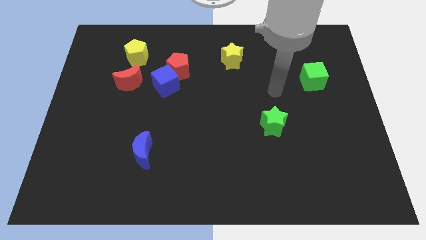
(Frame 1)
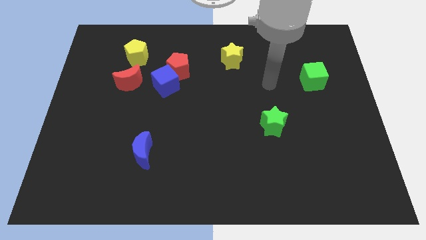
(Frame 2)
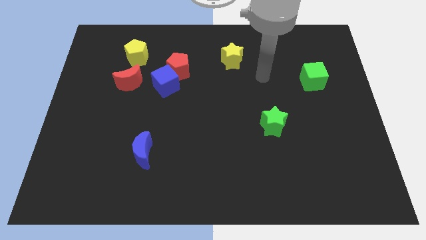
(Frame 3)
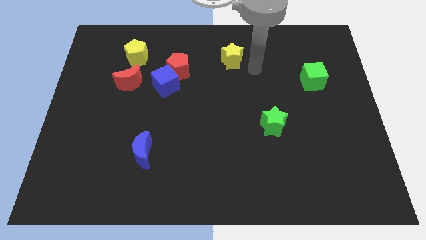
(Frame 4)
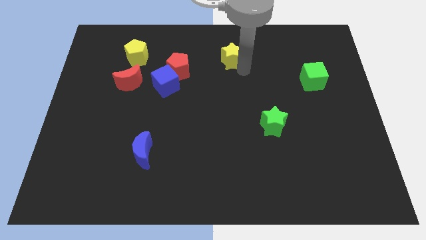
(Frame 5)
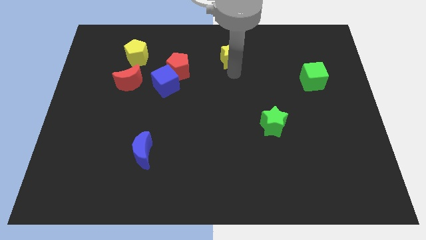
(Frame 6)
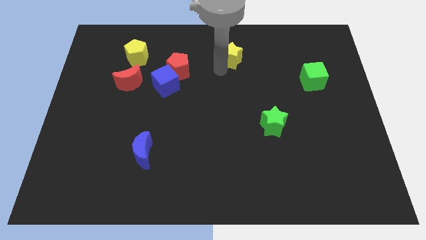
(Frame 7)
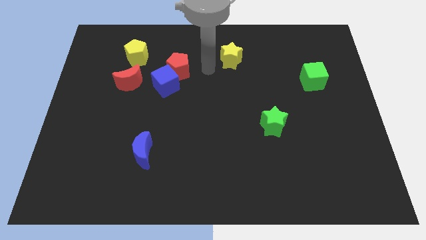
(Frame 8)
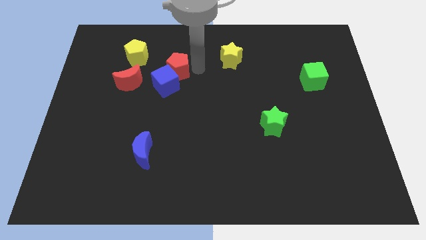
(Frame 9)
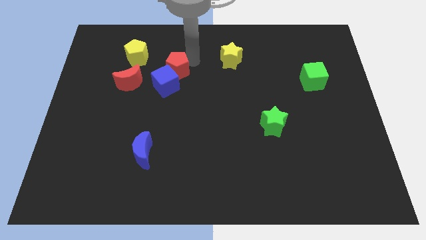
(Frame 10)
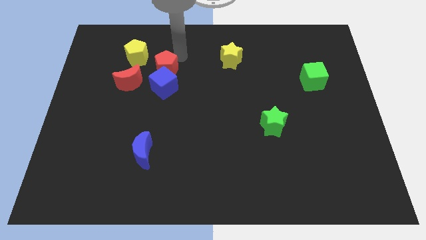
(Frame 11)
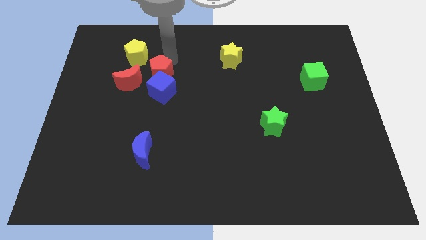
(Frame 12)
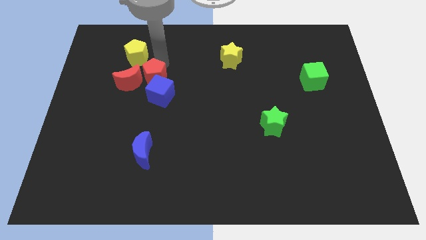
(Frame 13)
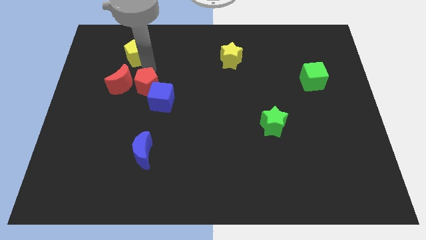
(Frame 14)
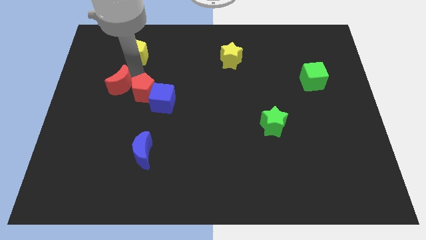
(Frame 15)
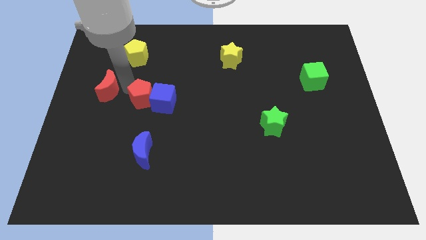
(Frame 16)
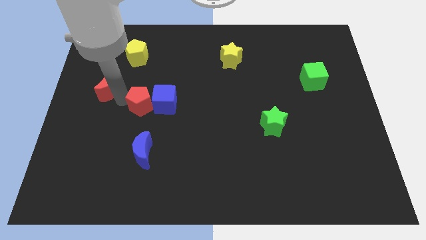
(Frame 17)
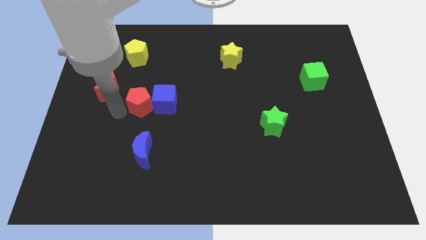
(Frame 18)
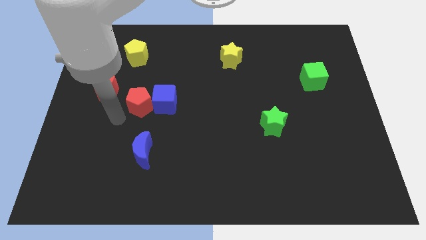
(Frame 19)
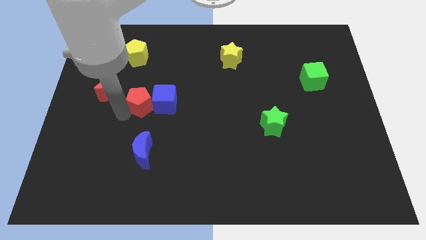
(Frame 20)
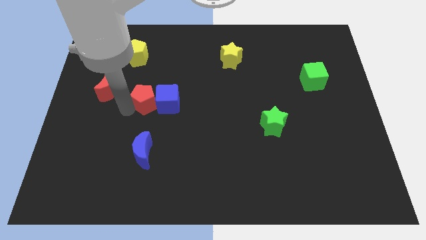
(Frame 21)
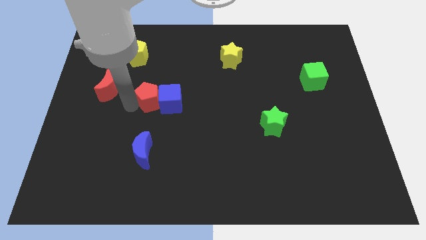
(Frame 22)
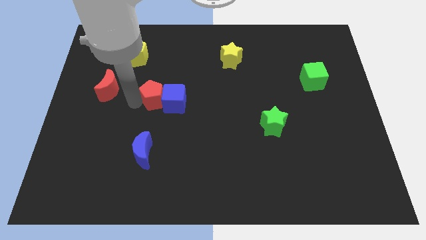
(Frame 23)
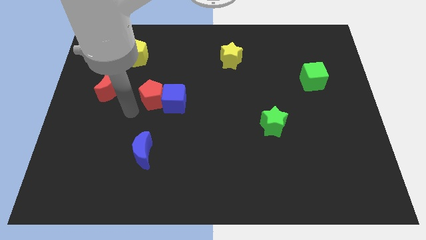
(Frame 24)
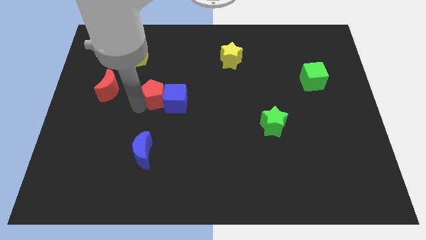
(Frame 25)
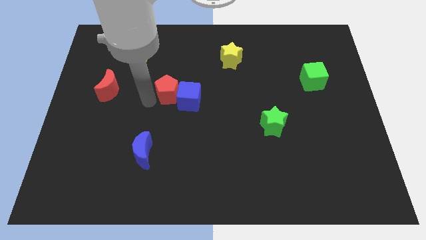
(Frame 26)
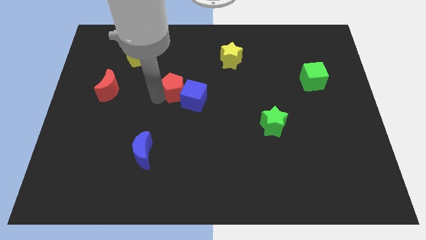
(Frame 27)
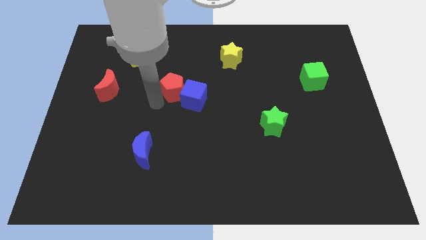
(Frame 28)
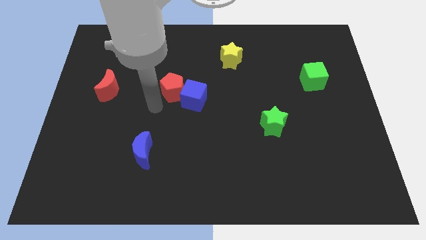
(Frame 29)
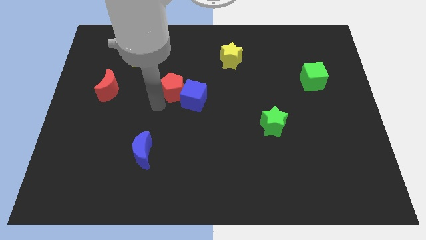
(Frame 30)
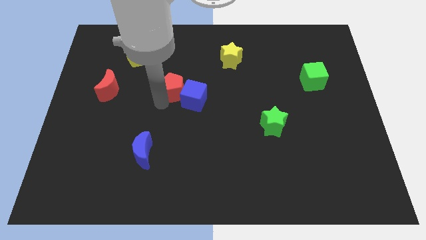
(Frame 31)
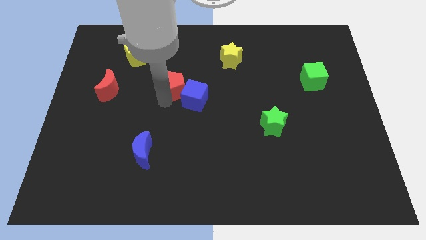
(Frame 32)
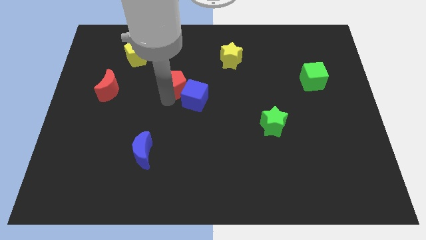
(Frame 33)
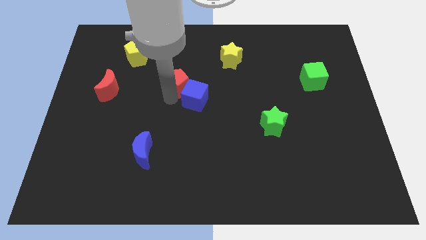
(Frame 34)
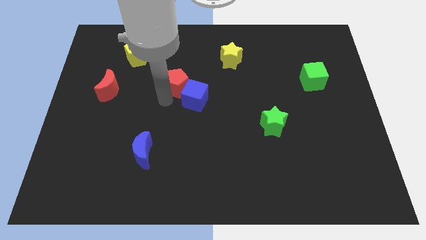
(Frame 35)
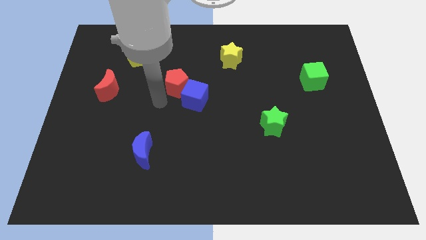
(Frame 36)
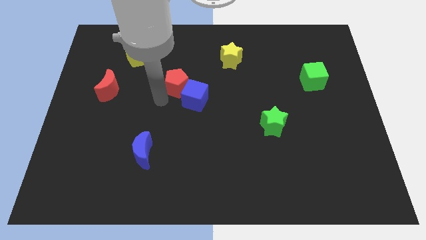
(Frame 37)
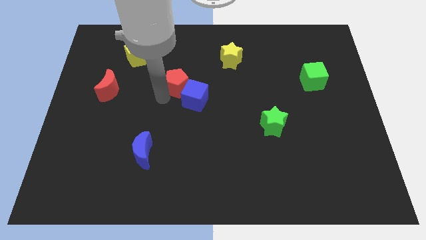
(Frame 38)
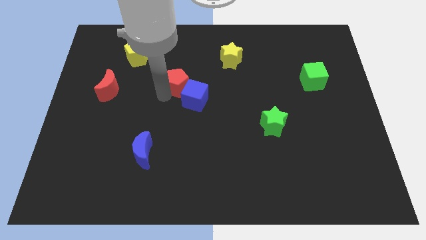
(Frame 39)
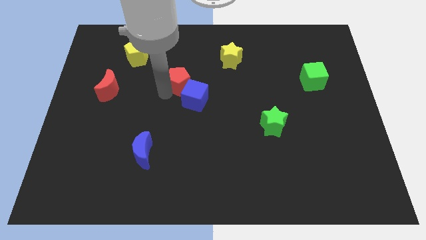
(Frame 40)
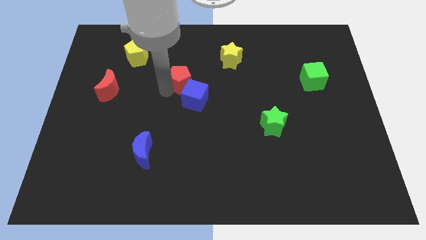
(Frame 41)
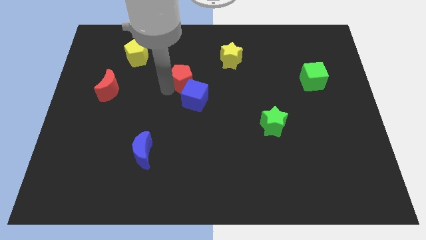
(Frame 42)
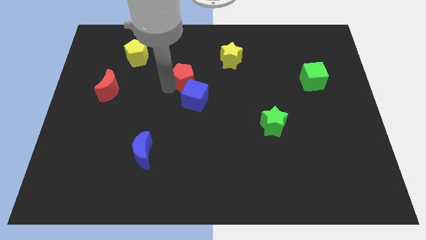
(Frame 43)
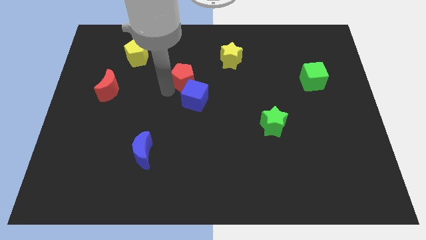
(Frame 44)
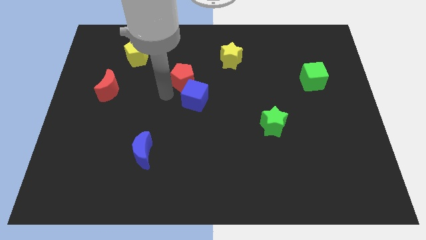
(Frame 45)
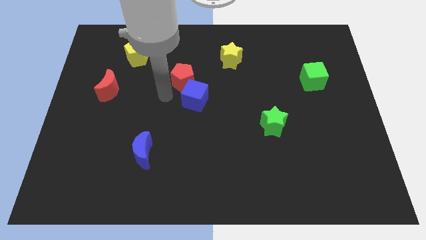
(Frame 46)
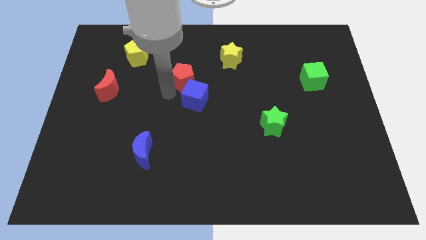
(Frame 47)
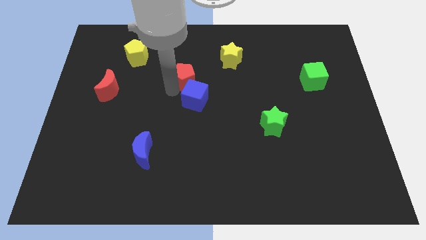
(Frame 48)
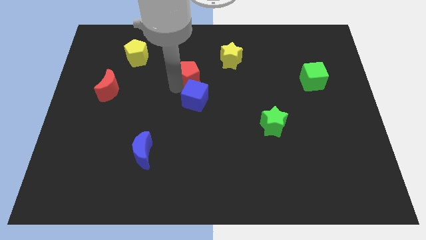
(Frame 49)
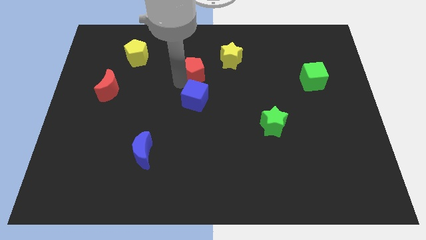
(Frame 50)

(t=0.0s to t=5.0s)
put the red pentagon diagonally down and to the left of the yellow star

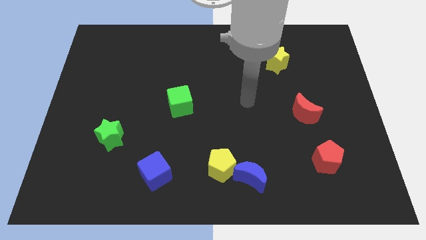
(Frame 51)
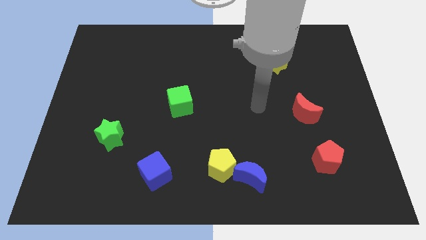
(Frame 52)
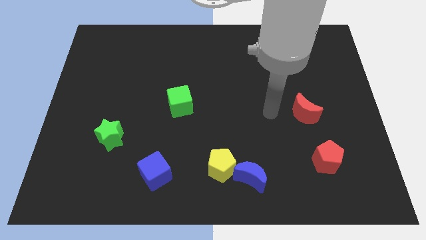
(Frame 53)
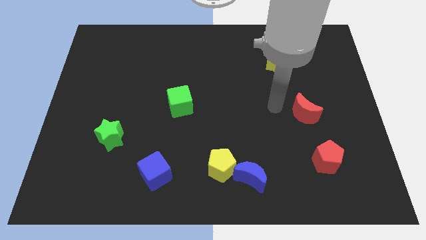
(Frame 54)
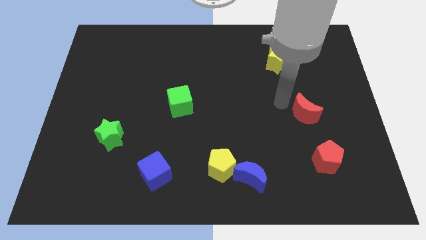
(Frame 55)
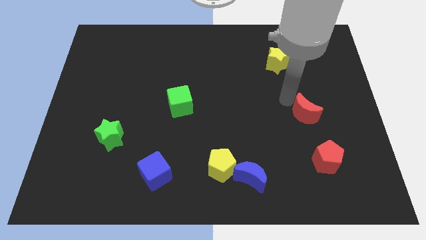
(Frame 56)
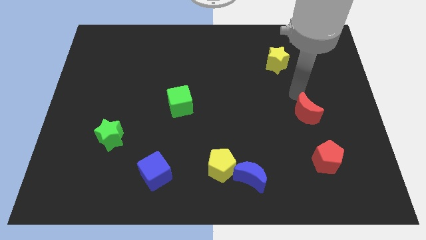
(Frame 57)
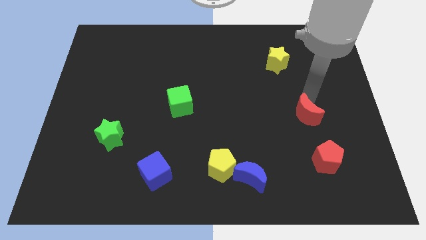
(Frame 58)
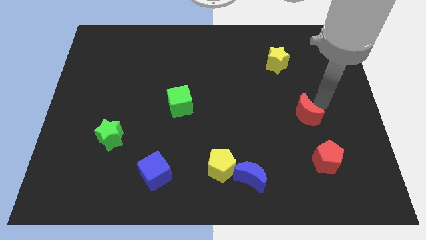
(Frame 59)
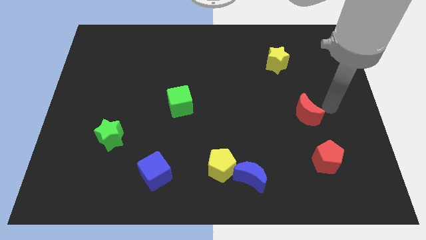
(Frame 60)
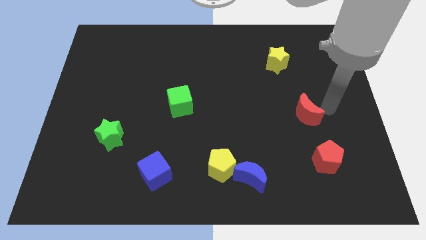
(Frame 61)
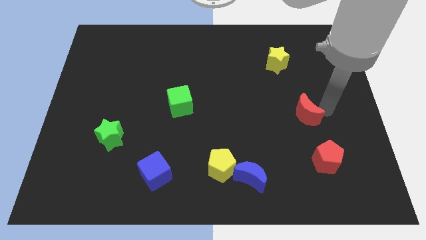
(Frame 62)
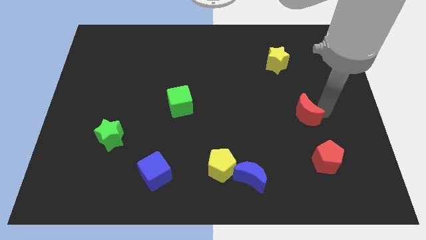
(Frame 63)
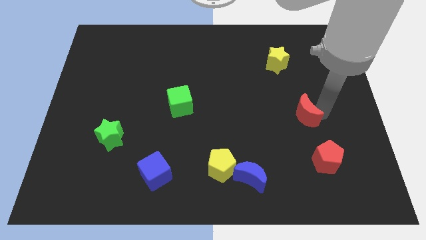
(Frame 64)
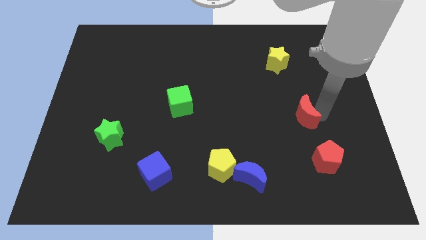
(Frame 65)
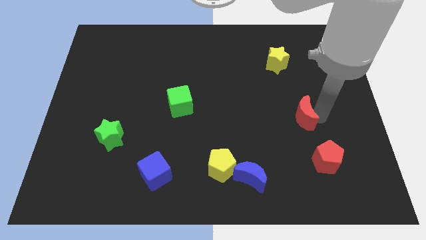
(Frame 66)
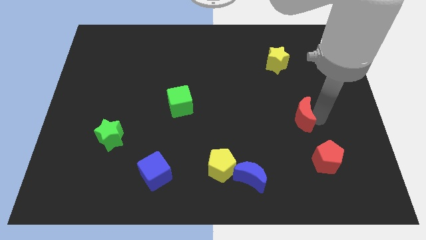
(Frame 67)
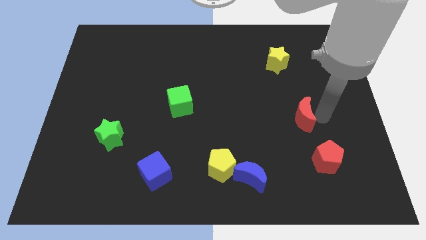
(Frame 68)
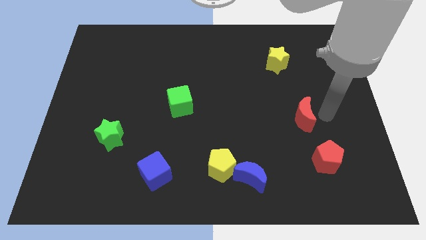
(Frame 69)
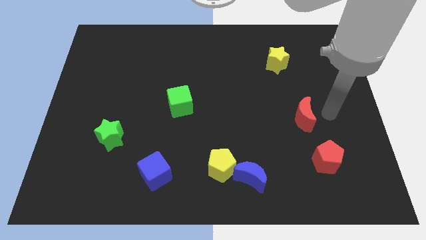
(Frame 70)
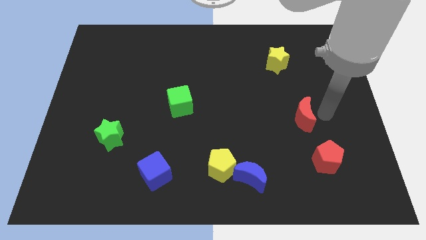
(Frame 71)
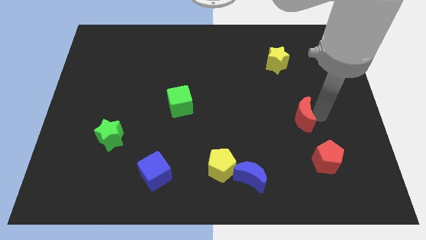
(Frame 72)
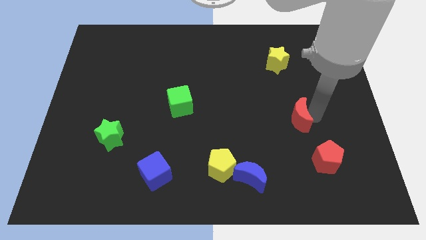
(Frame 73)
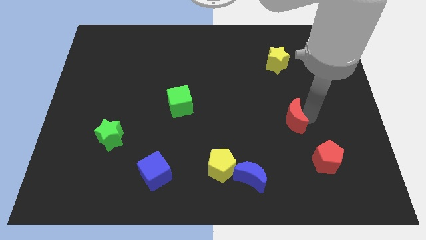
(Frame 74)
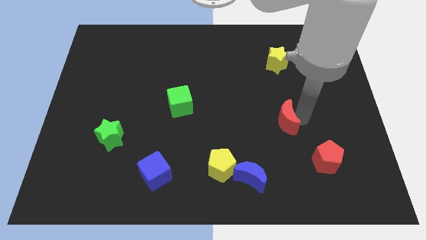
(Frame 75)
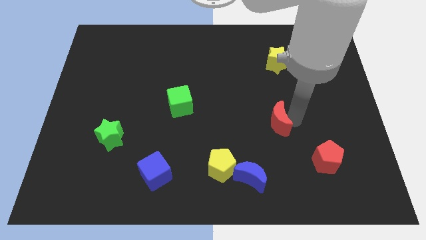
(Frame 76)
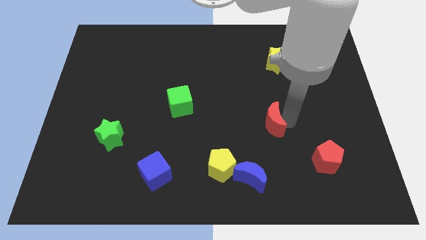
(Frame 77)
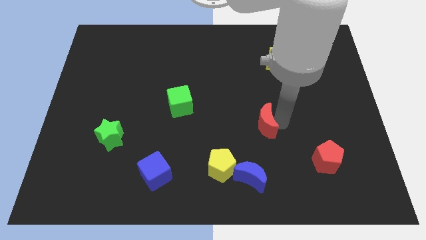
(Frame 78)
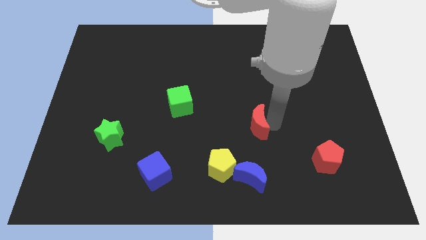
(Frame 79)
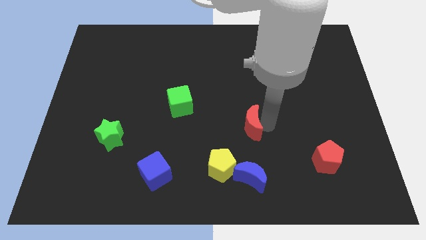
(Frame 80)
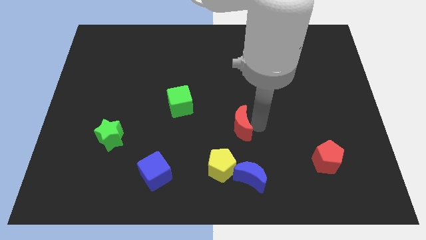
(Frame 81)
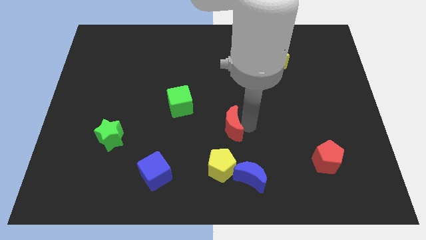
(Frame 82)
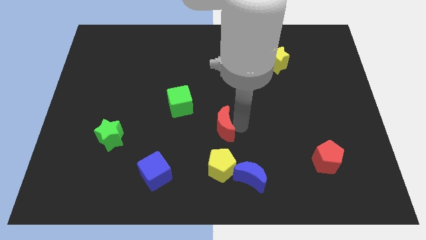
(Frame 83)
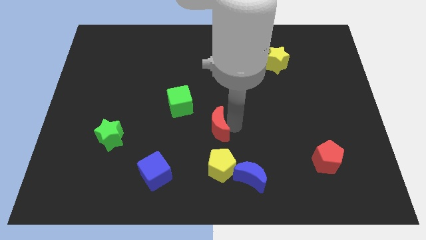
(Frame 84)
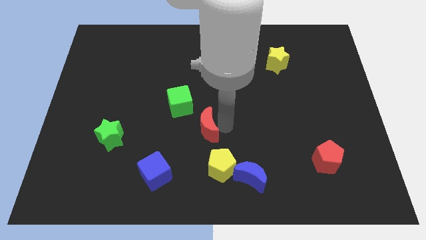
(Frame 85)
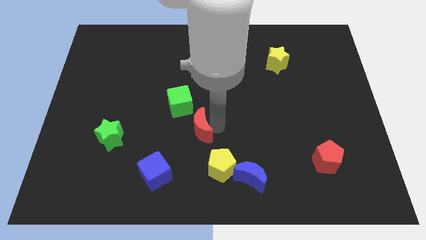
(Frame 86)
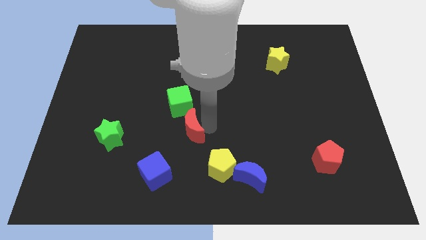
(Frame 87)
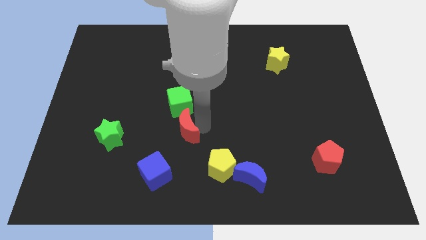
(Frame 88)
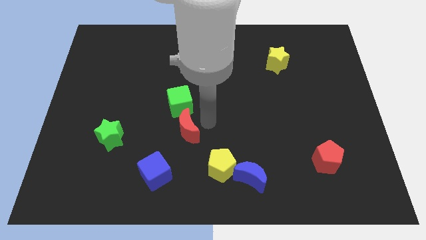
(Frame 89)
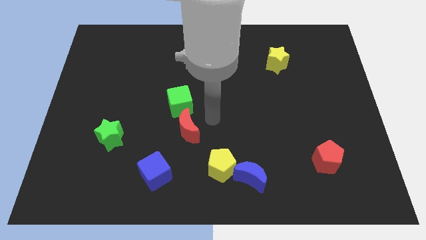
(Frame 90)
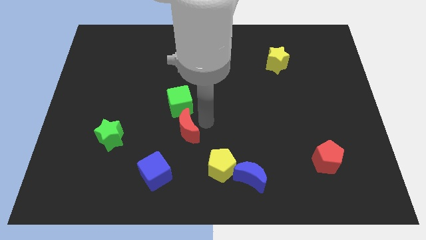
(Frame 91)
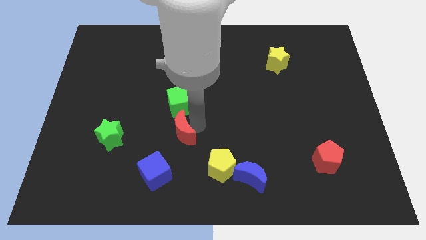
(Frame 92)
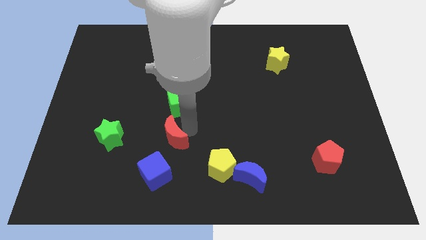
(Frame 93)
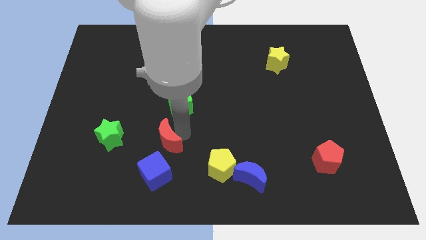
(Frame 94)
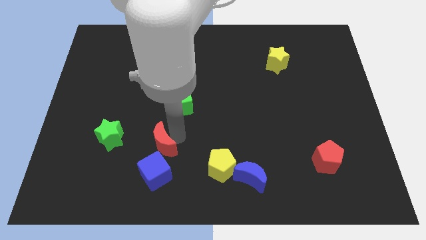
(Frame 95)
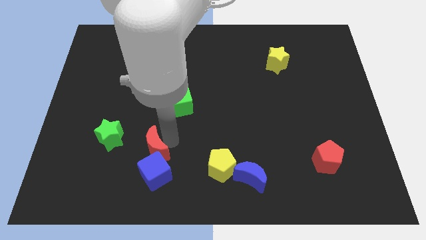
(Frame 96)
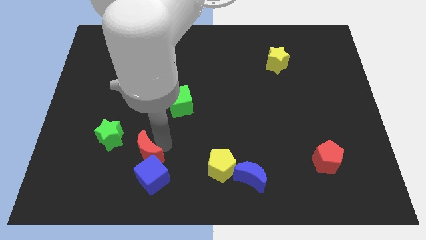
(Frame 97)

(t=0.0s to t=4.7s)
push the red moon diagonally down and to the right of the green star
